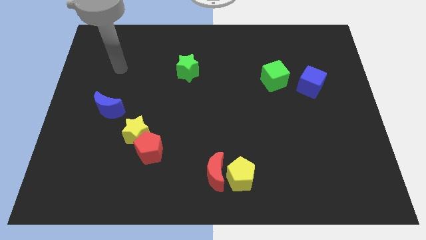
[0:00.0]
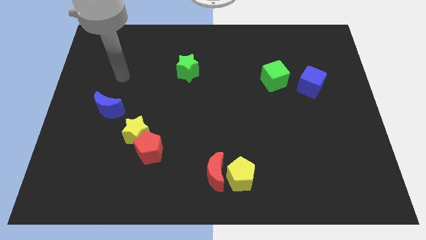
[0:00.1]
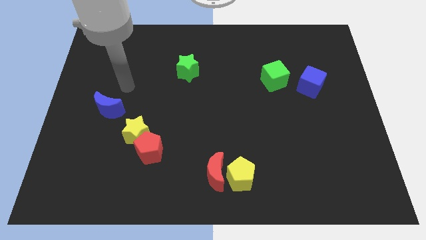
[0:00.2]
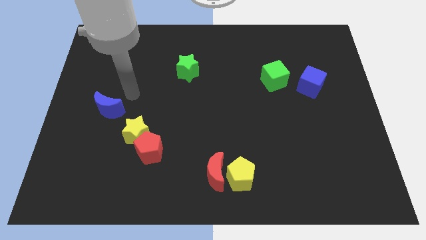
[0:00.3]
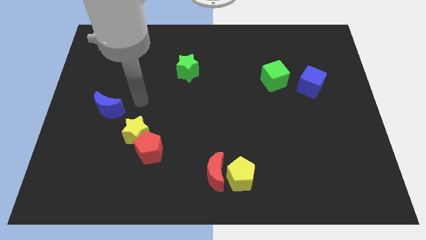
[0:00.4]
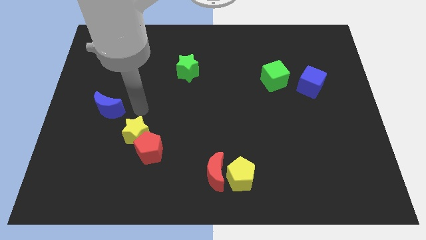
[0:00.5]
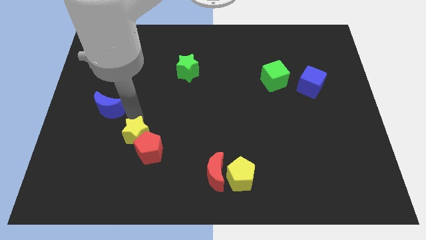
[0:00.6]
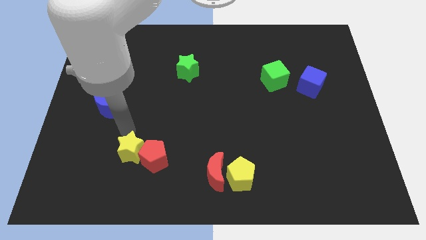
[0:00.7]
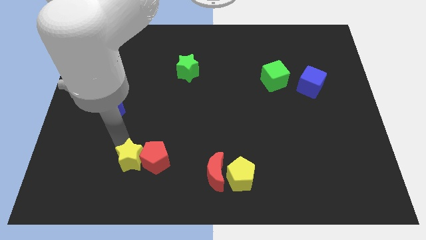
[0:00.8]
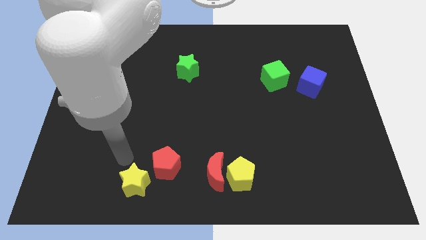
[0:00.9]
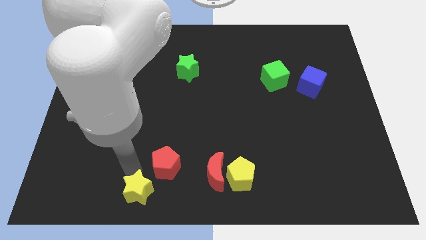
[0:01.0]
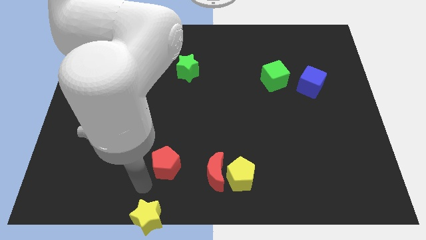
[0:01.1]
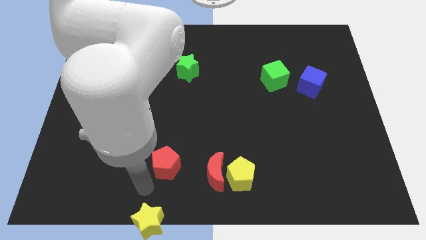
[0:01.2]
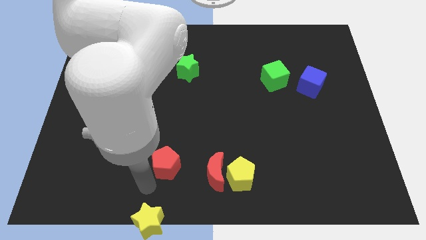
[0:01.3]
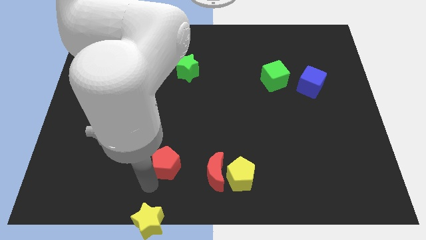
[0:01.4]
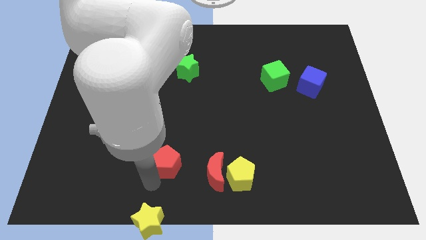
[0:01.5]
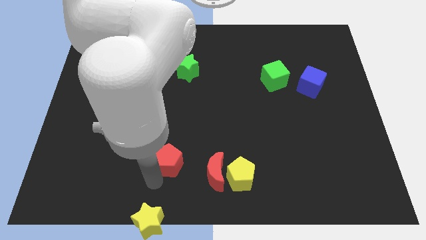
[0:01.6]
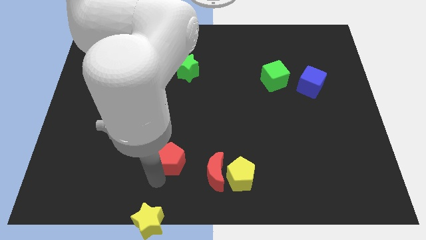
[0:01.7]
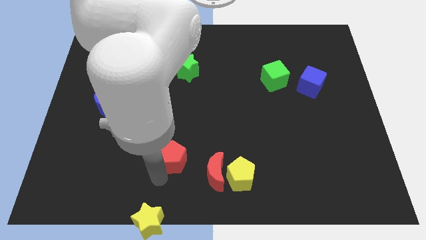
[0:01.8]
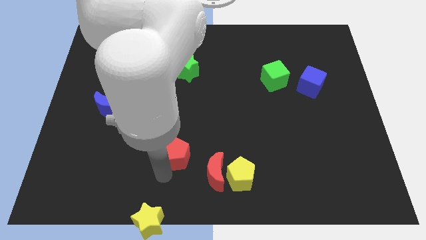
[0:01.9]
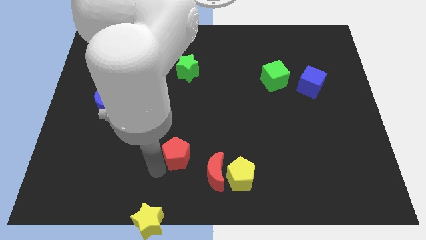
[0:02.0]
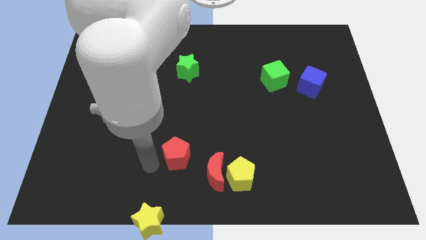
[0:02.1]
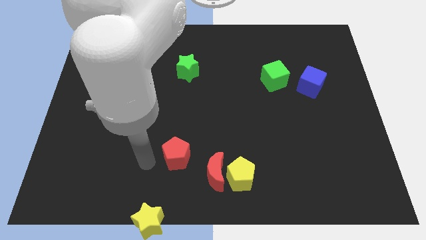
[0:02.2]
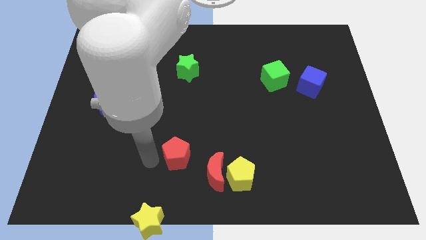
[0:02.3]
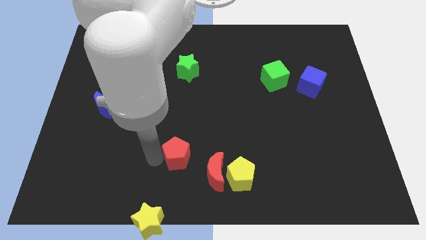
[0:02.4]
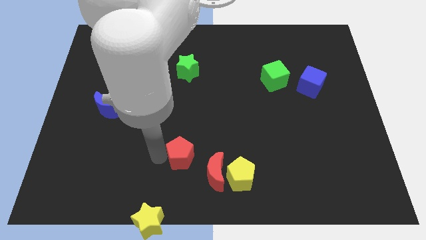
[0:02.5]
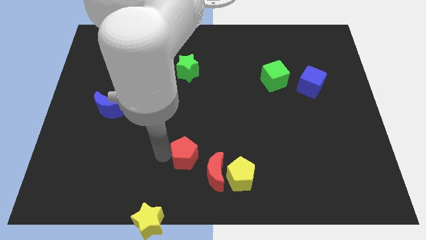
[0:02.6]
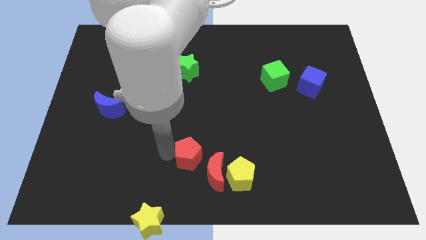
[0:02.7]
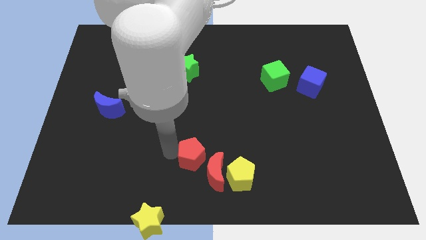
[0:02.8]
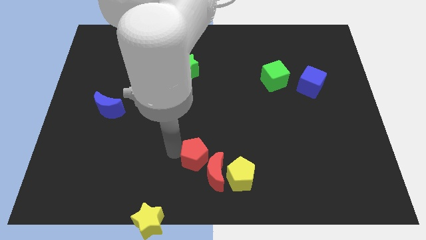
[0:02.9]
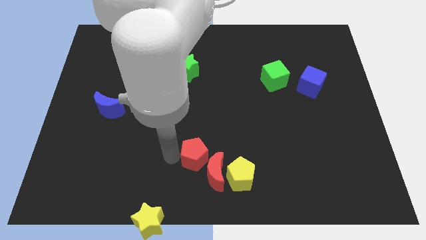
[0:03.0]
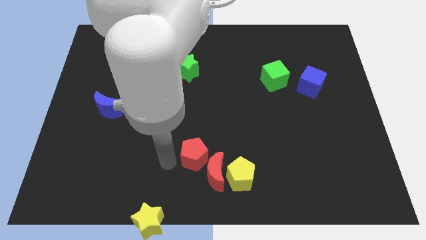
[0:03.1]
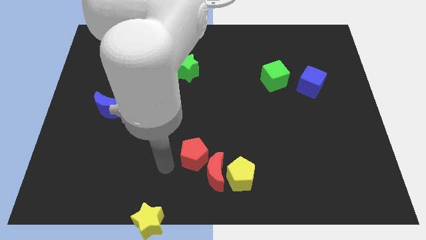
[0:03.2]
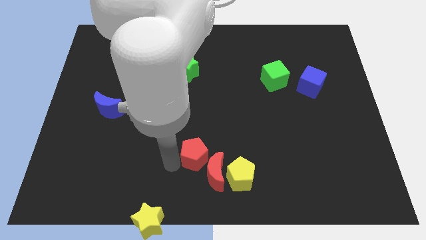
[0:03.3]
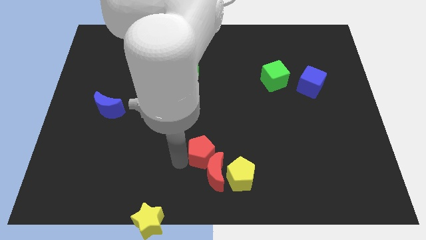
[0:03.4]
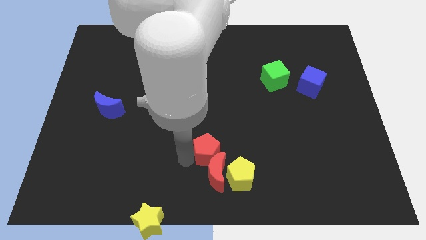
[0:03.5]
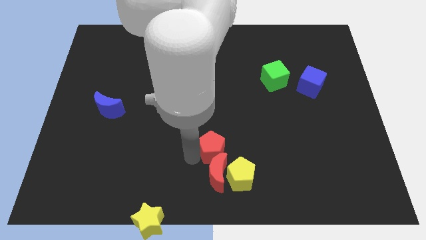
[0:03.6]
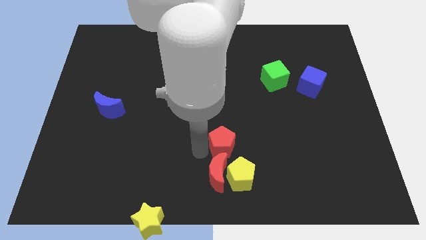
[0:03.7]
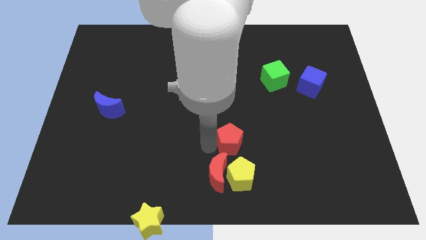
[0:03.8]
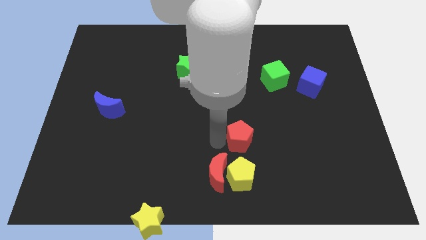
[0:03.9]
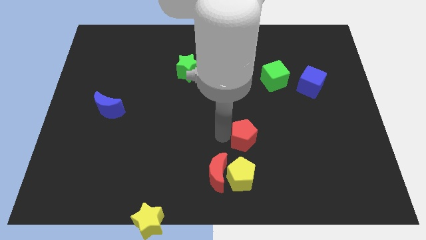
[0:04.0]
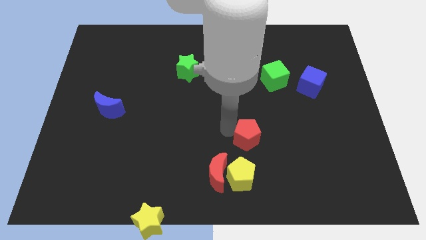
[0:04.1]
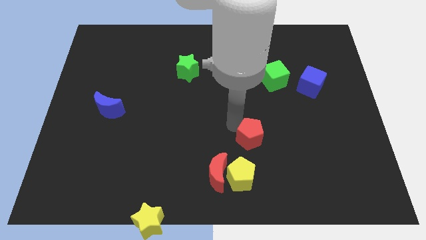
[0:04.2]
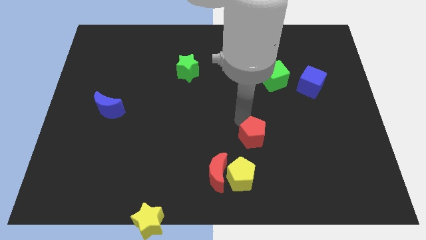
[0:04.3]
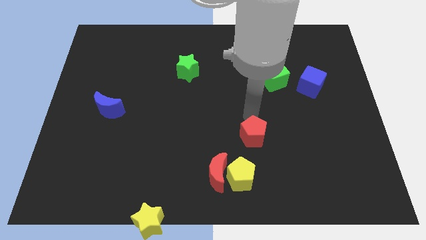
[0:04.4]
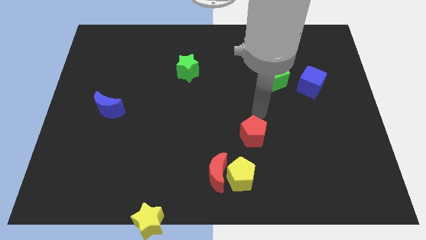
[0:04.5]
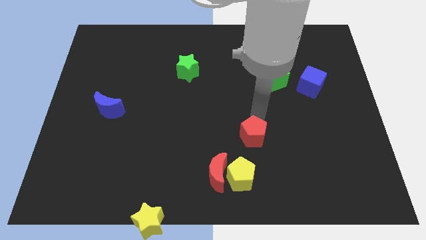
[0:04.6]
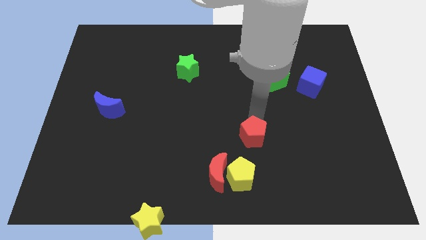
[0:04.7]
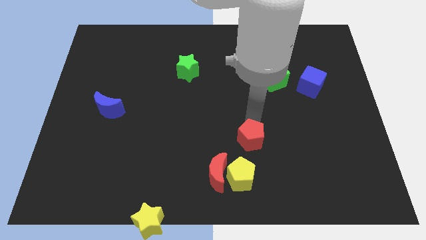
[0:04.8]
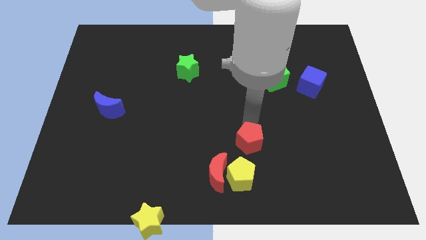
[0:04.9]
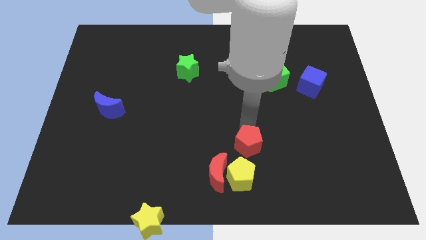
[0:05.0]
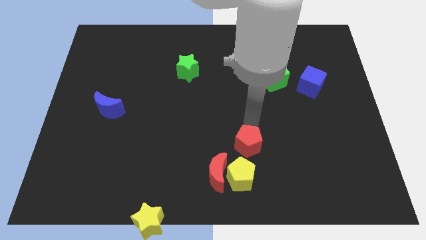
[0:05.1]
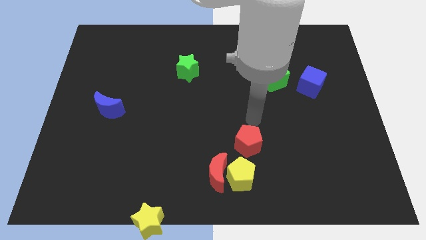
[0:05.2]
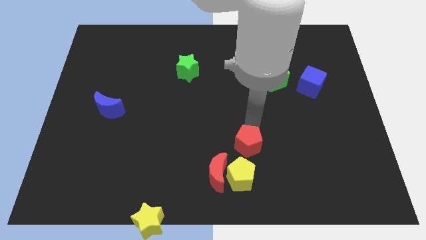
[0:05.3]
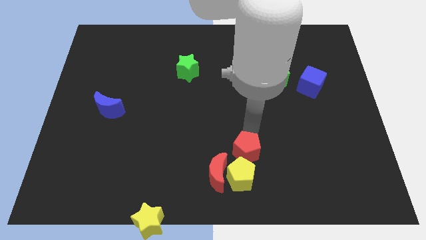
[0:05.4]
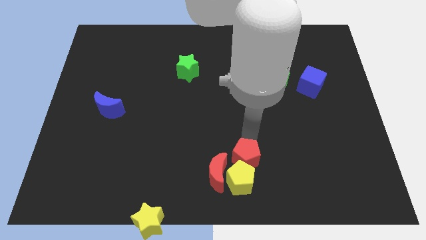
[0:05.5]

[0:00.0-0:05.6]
push the red pentagon towards the yellow pentagon

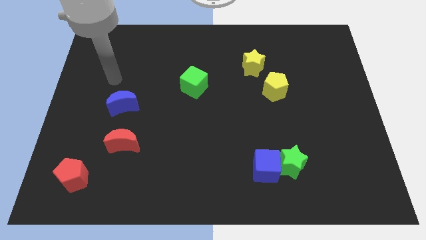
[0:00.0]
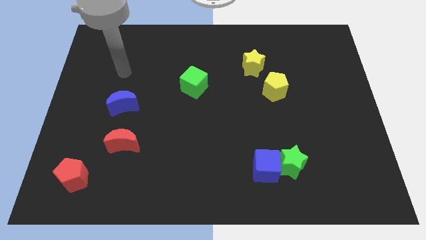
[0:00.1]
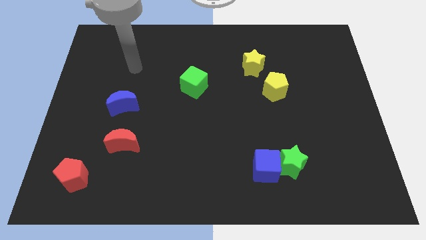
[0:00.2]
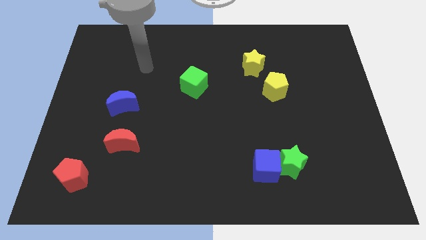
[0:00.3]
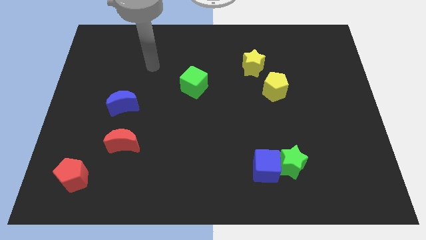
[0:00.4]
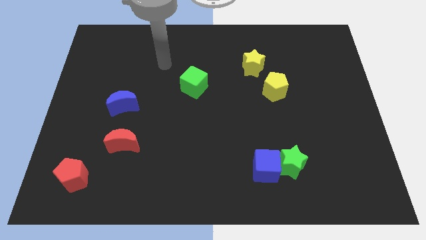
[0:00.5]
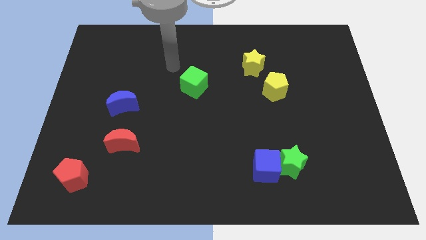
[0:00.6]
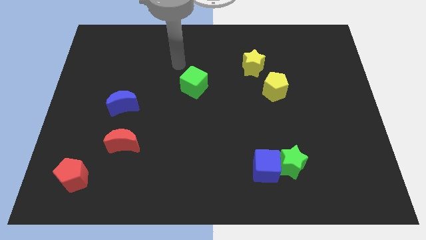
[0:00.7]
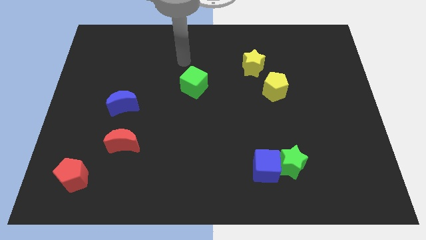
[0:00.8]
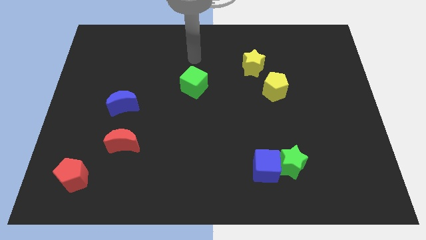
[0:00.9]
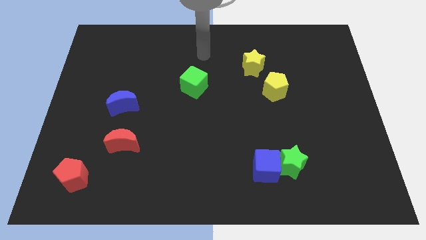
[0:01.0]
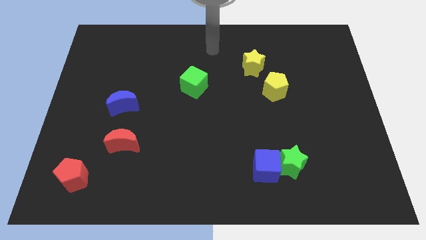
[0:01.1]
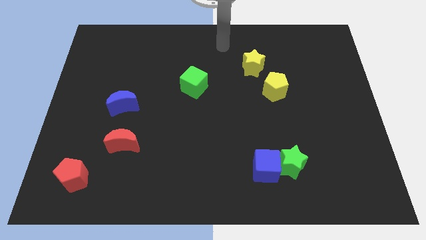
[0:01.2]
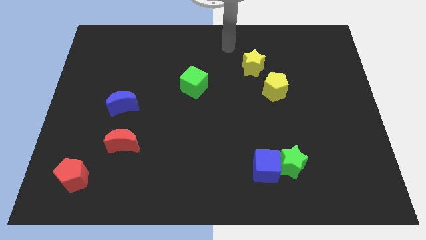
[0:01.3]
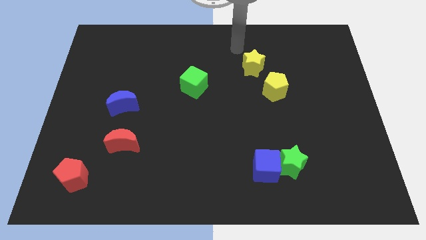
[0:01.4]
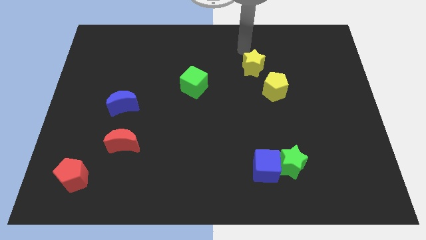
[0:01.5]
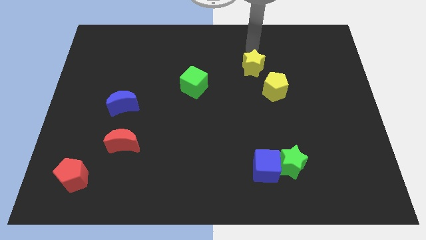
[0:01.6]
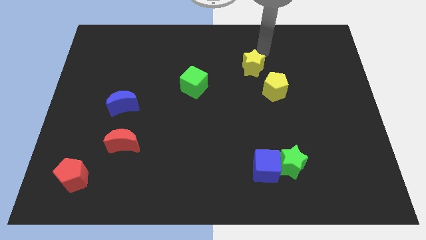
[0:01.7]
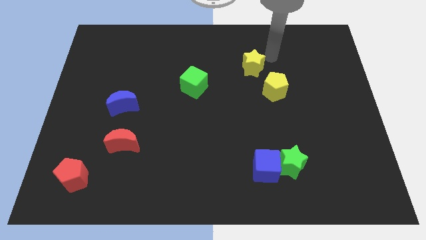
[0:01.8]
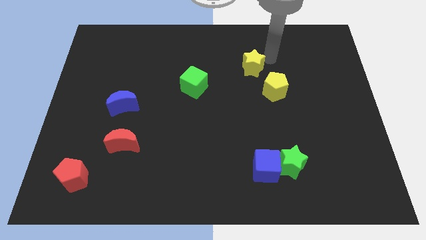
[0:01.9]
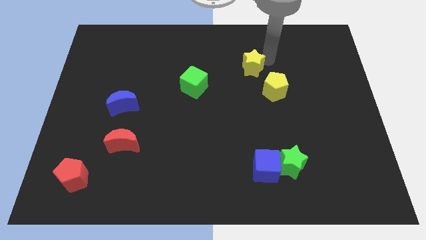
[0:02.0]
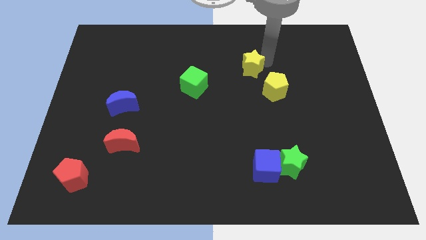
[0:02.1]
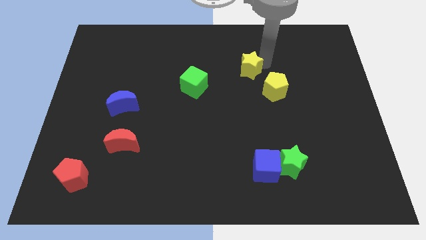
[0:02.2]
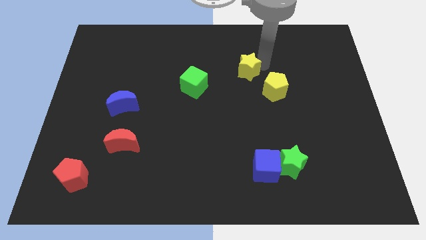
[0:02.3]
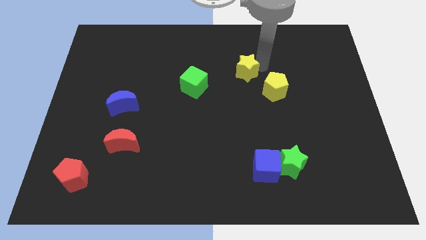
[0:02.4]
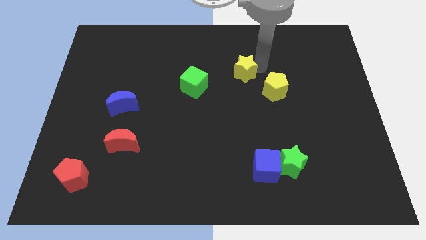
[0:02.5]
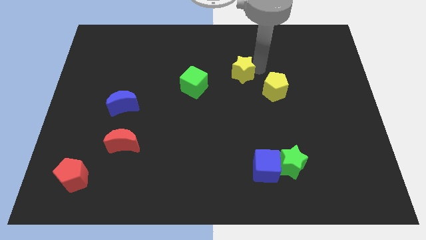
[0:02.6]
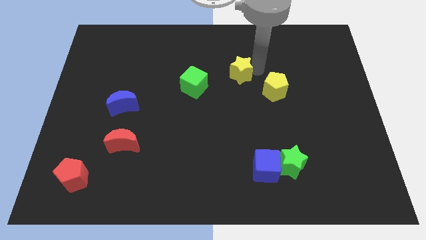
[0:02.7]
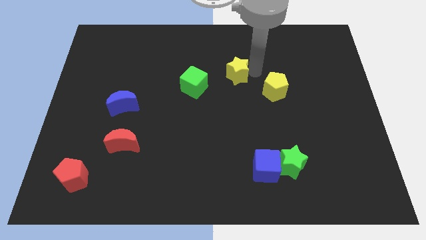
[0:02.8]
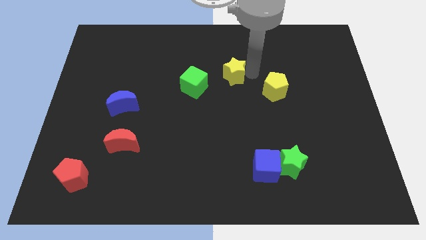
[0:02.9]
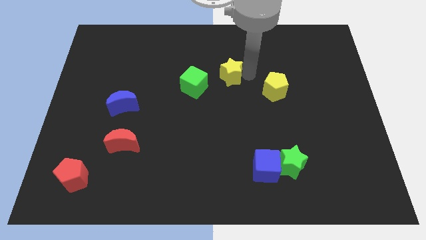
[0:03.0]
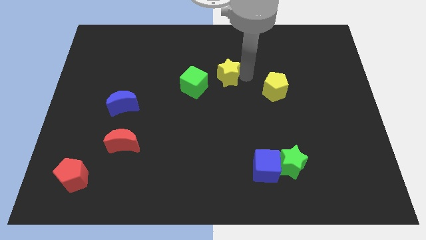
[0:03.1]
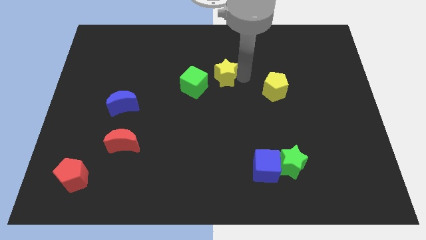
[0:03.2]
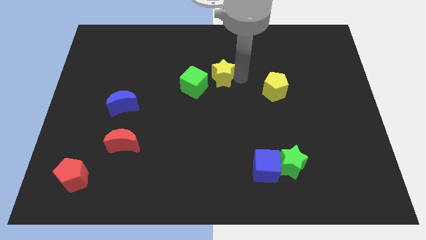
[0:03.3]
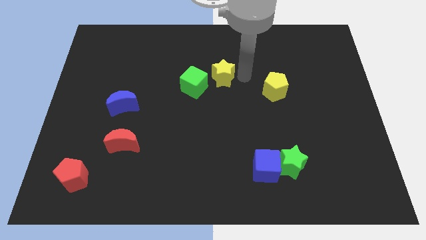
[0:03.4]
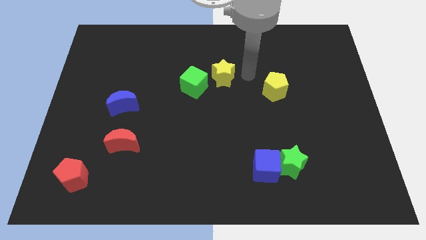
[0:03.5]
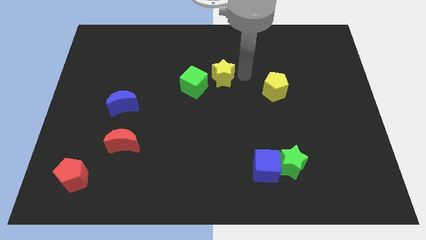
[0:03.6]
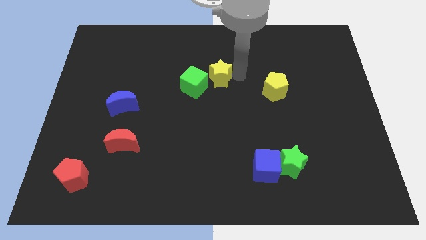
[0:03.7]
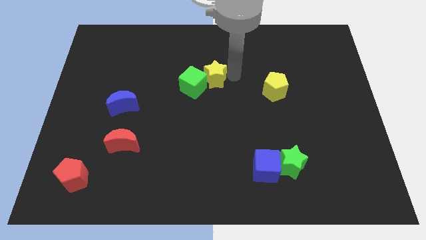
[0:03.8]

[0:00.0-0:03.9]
push the yellow star next to the green cube
